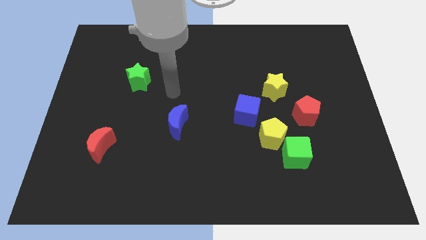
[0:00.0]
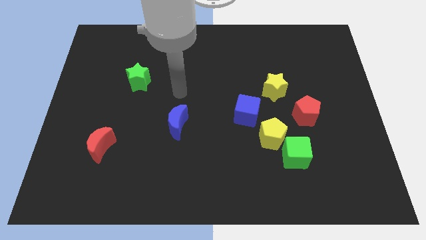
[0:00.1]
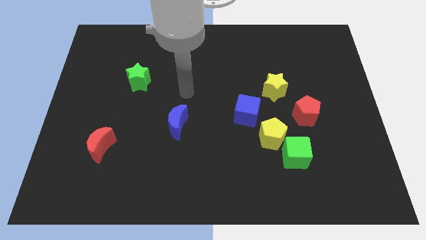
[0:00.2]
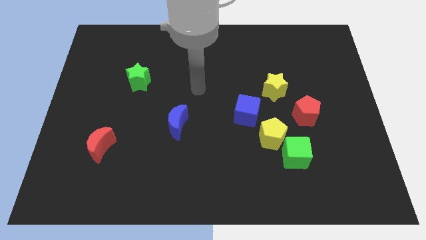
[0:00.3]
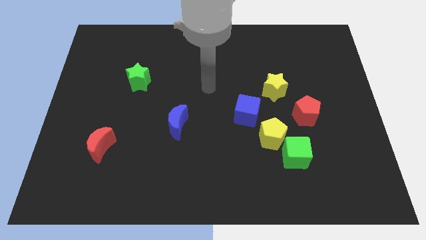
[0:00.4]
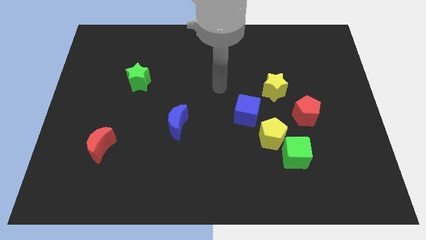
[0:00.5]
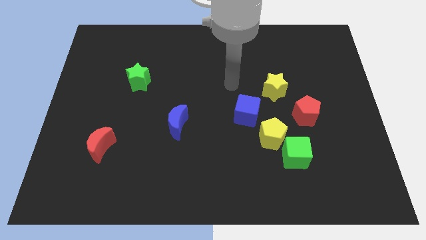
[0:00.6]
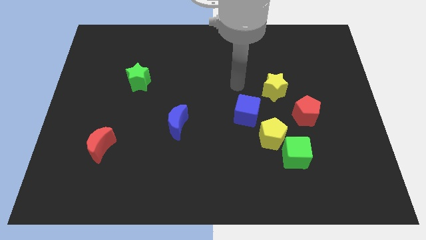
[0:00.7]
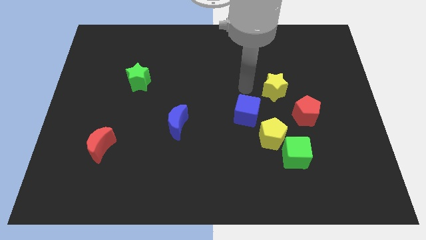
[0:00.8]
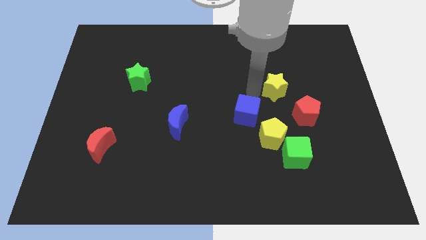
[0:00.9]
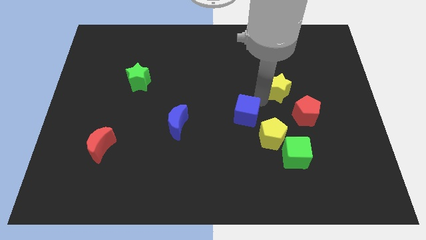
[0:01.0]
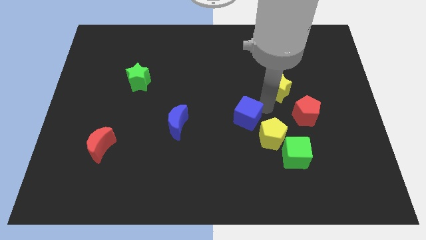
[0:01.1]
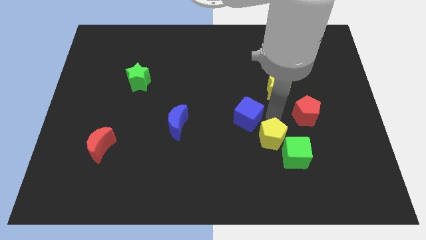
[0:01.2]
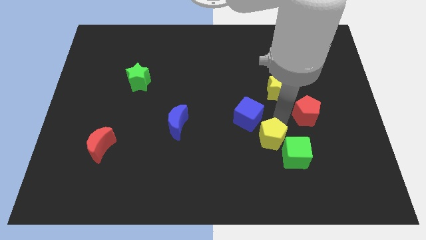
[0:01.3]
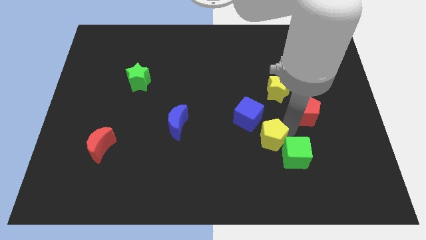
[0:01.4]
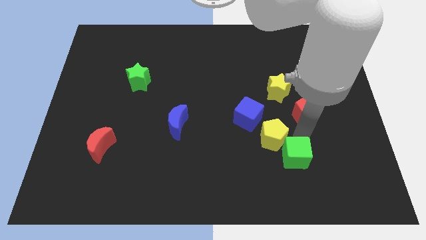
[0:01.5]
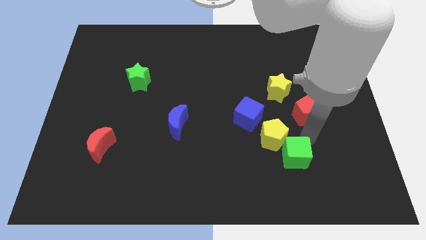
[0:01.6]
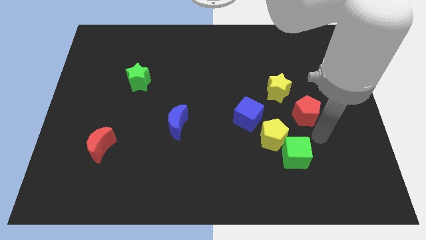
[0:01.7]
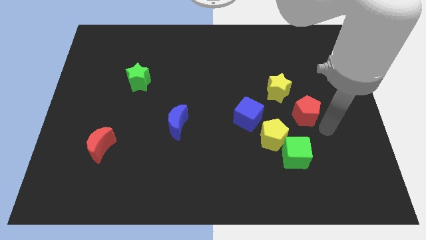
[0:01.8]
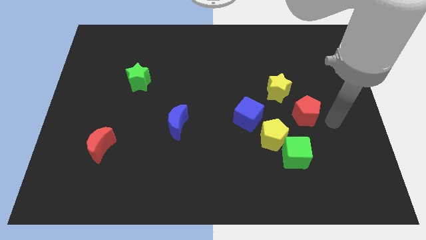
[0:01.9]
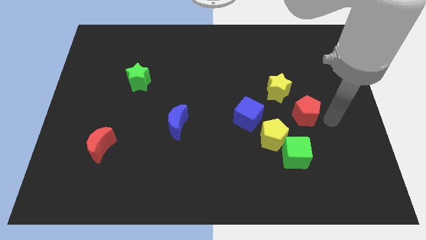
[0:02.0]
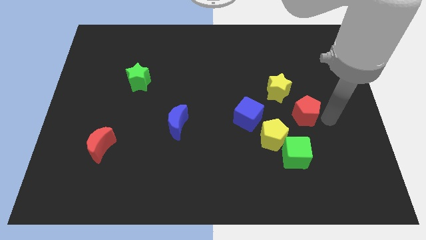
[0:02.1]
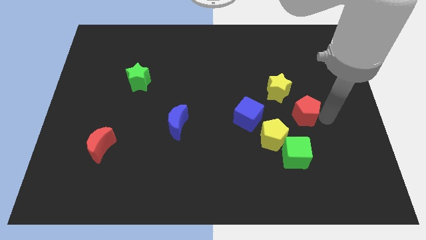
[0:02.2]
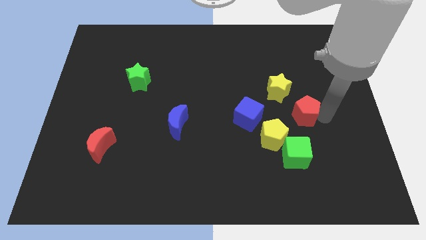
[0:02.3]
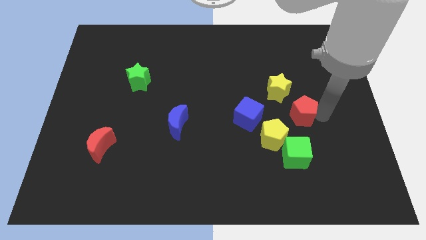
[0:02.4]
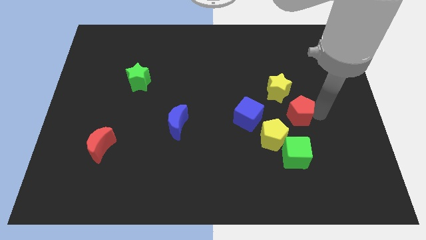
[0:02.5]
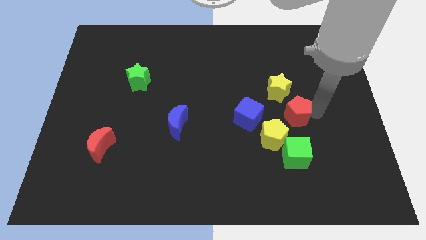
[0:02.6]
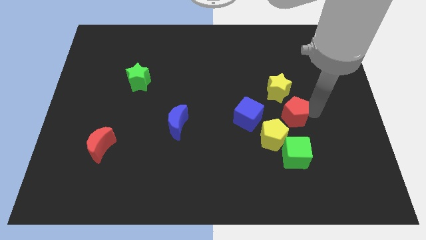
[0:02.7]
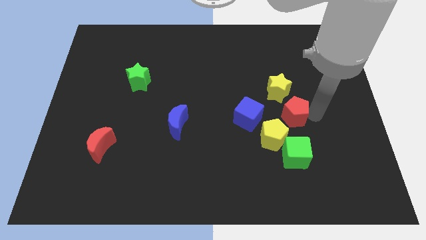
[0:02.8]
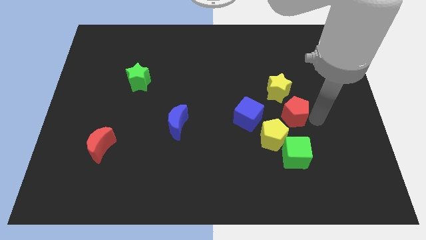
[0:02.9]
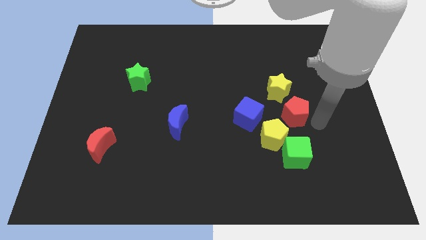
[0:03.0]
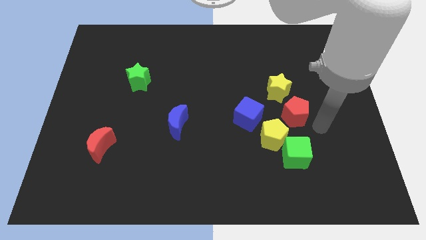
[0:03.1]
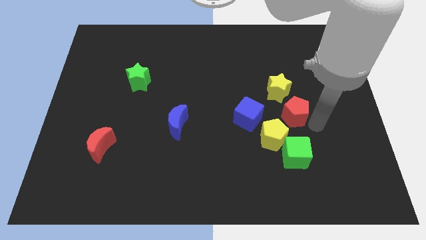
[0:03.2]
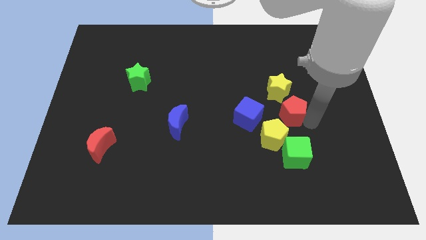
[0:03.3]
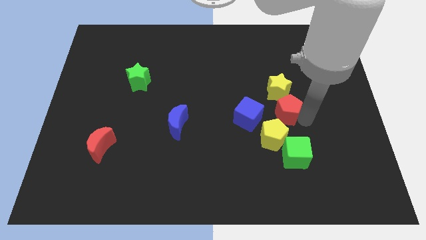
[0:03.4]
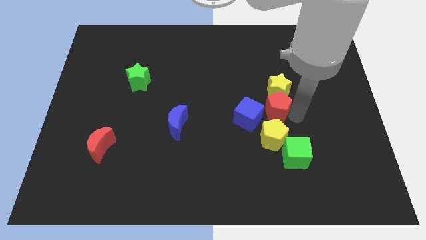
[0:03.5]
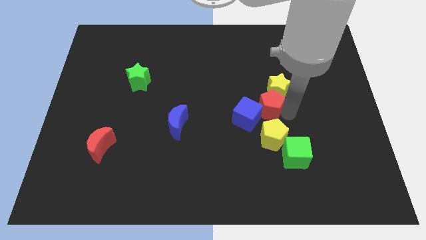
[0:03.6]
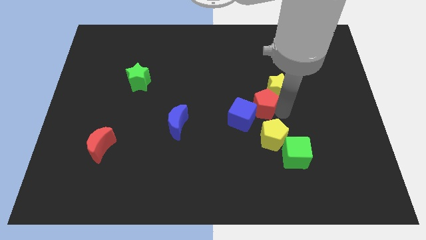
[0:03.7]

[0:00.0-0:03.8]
slightly push the red pentagon diagonally upwards and to the left

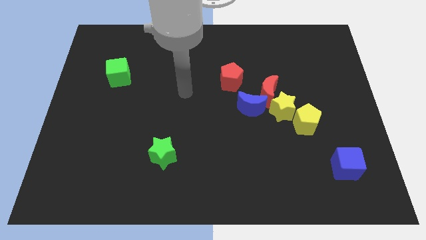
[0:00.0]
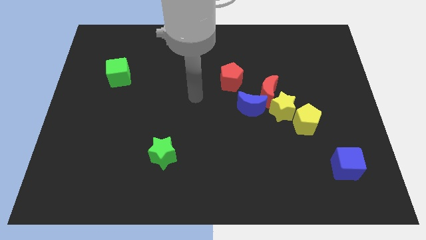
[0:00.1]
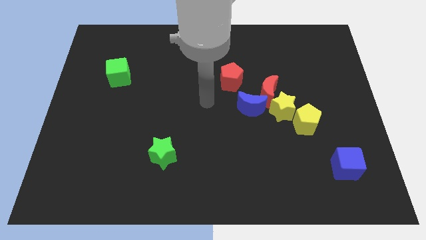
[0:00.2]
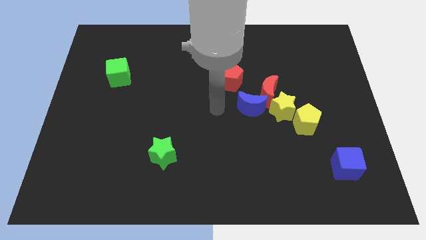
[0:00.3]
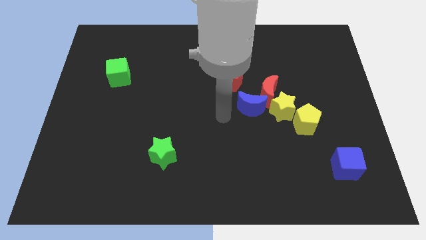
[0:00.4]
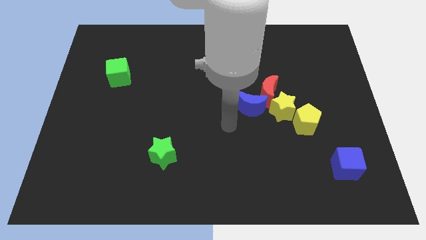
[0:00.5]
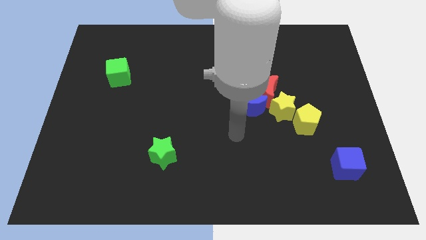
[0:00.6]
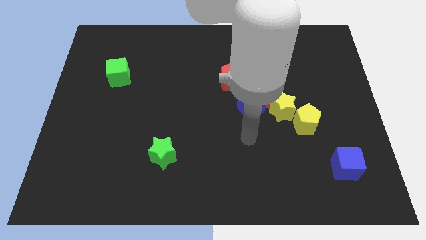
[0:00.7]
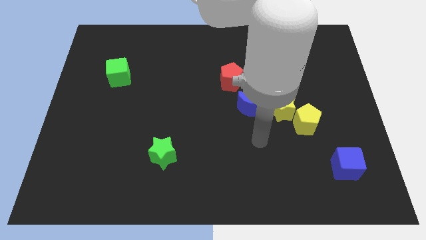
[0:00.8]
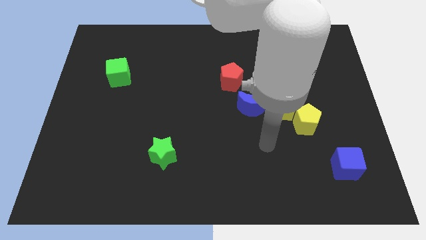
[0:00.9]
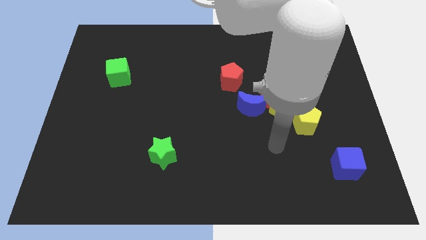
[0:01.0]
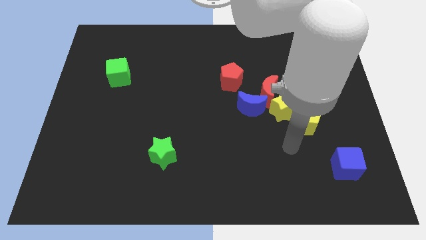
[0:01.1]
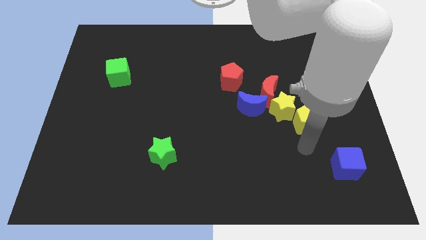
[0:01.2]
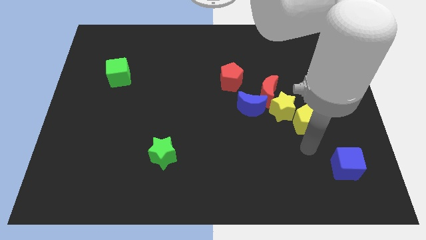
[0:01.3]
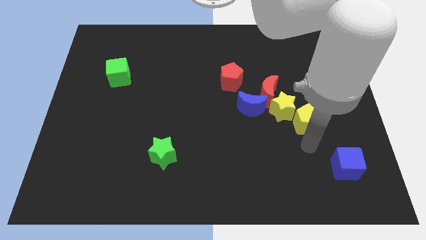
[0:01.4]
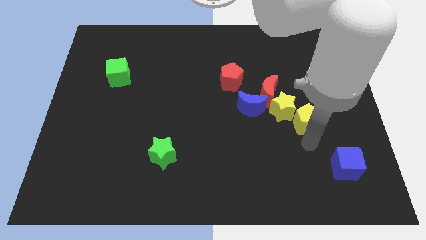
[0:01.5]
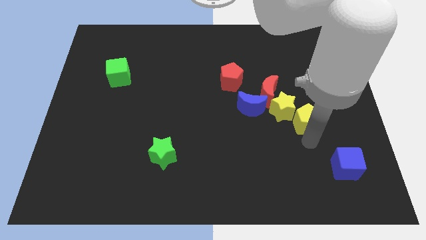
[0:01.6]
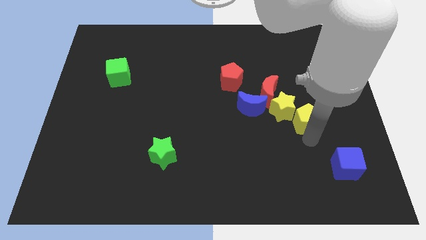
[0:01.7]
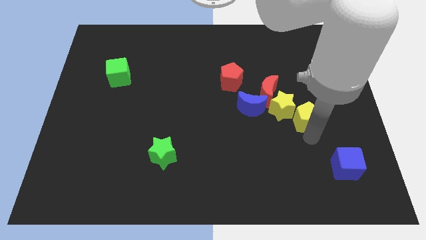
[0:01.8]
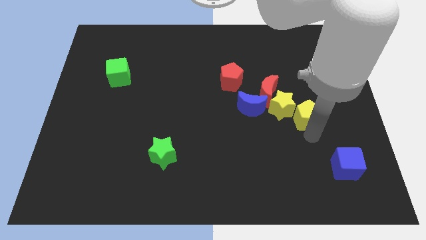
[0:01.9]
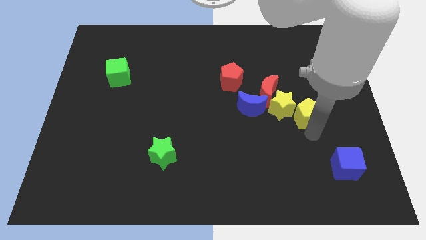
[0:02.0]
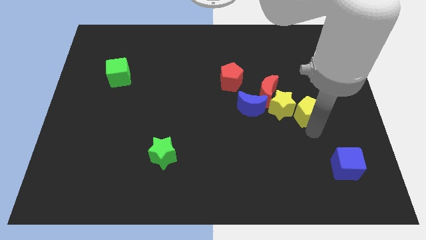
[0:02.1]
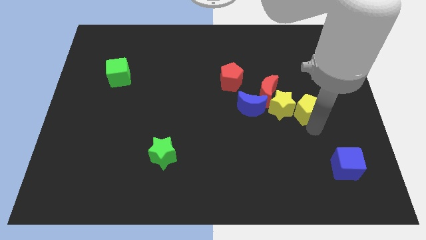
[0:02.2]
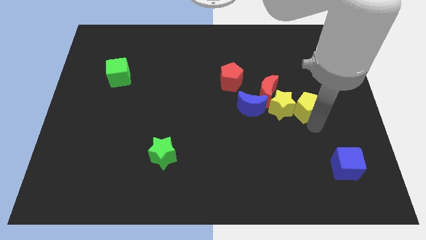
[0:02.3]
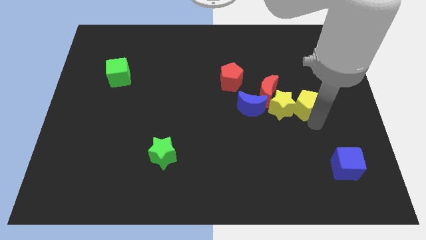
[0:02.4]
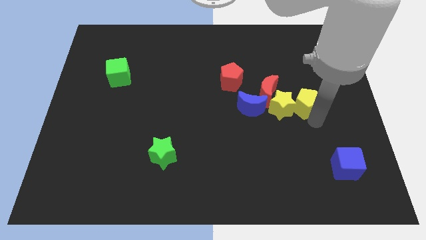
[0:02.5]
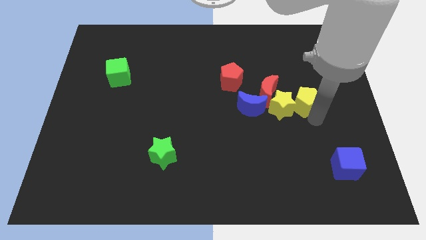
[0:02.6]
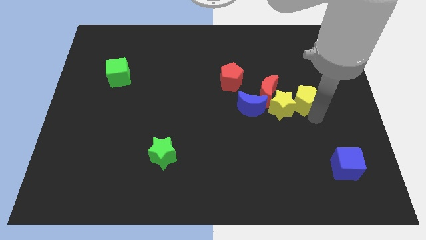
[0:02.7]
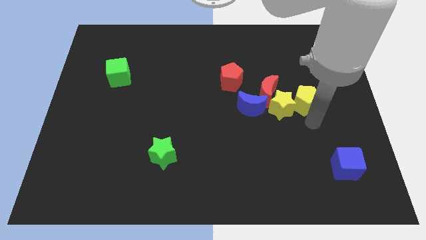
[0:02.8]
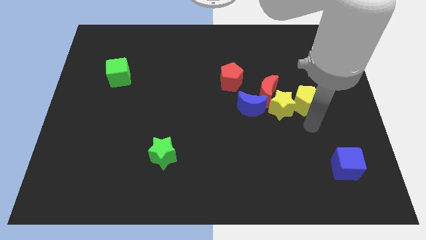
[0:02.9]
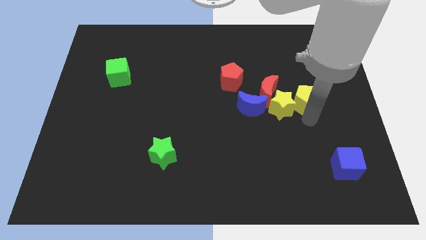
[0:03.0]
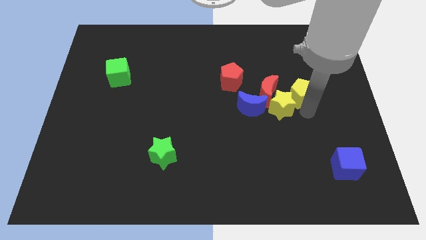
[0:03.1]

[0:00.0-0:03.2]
push the yellow pentagon upwards a little

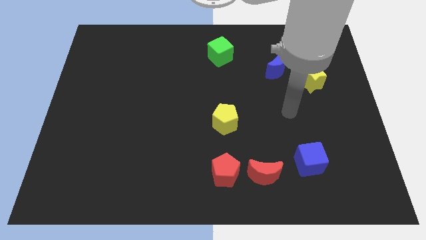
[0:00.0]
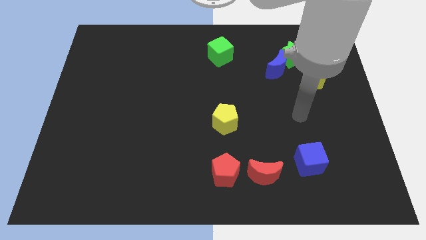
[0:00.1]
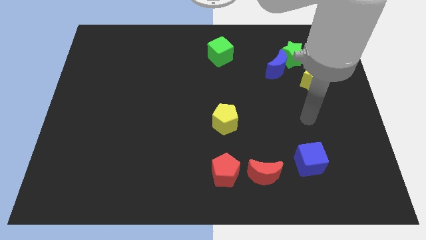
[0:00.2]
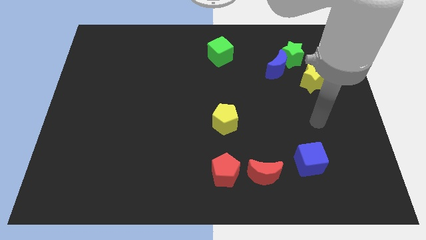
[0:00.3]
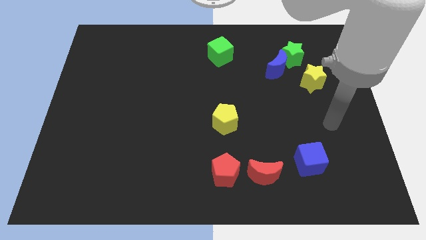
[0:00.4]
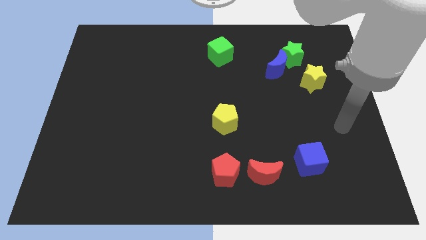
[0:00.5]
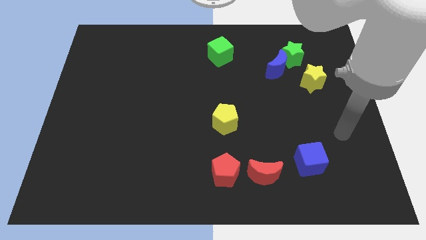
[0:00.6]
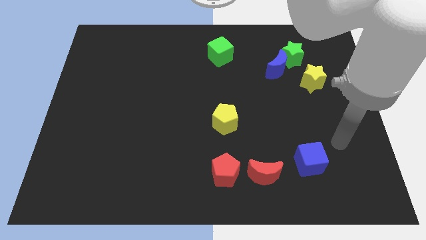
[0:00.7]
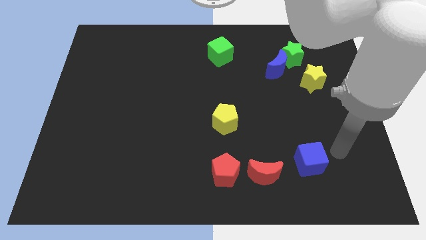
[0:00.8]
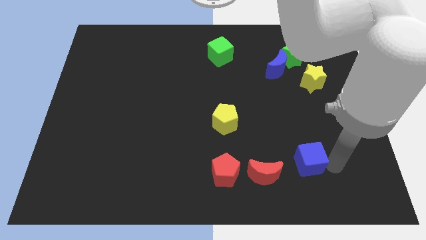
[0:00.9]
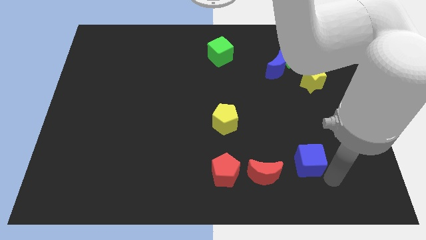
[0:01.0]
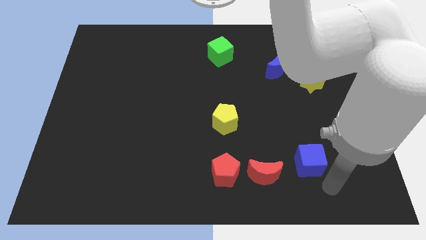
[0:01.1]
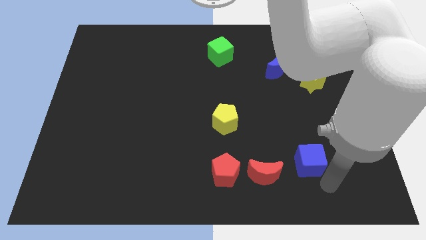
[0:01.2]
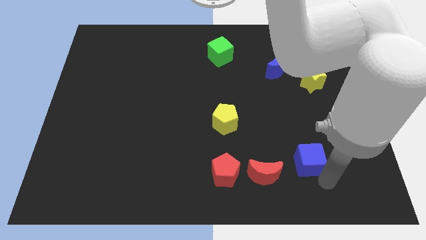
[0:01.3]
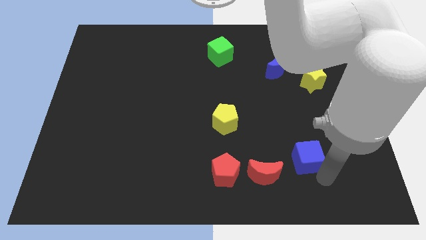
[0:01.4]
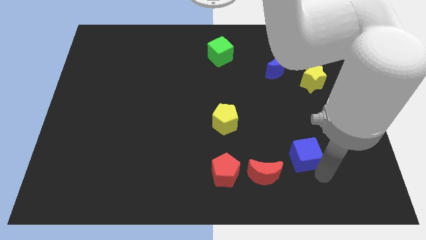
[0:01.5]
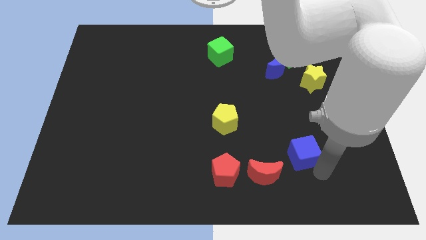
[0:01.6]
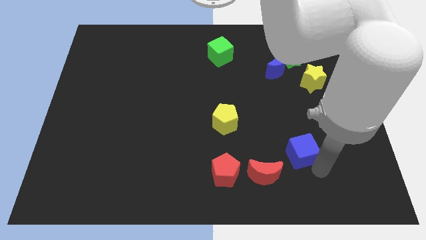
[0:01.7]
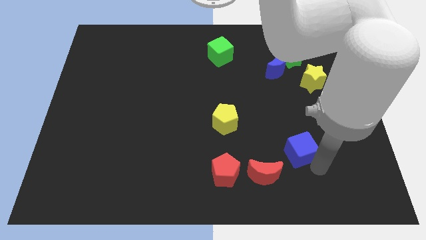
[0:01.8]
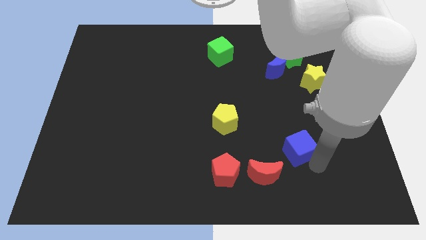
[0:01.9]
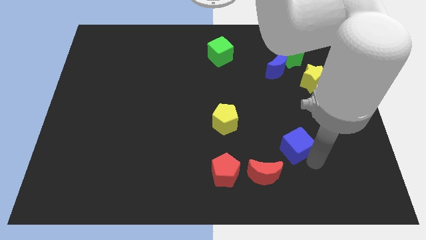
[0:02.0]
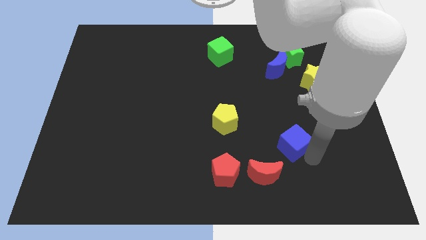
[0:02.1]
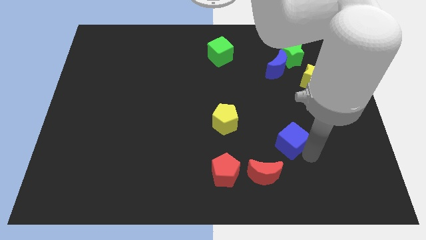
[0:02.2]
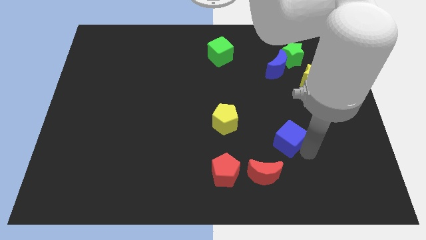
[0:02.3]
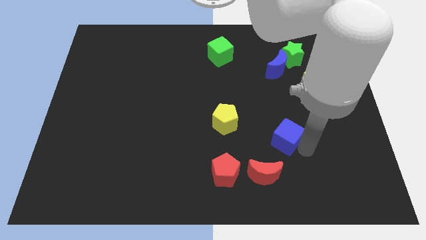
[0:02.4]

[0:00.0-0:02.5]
move the blue cube diagonally up and left a little
